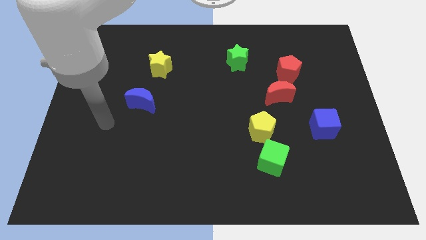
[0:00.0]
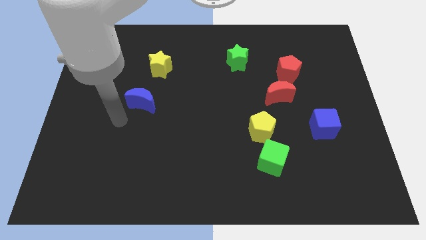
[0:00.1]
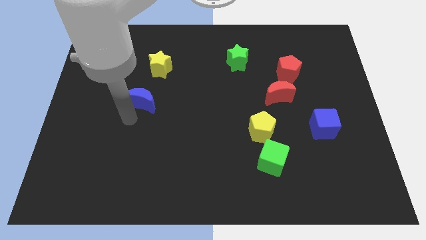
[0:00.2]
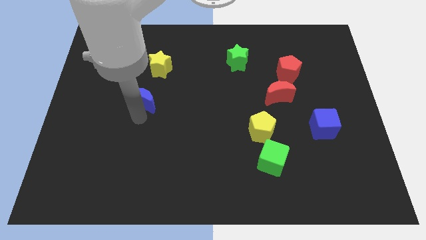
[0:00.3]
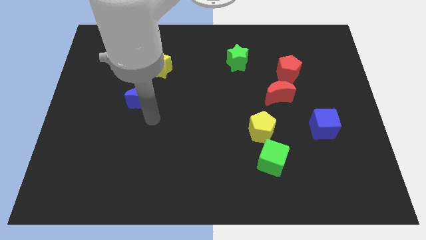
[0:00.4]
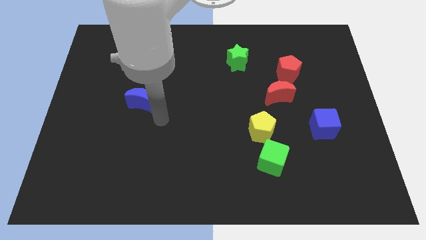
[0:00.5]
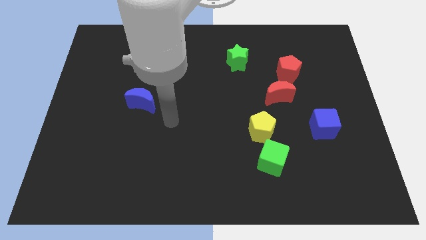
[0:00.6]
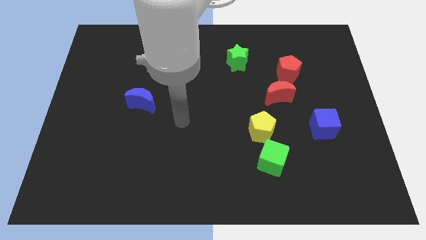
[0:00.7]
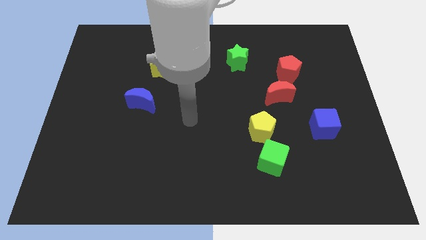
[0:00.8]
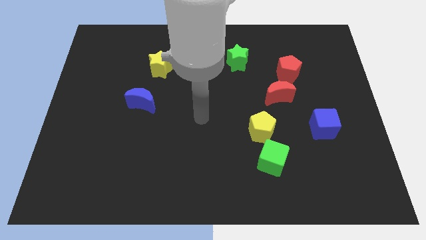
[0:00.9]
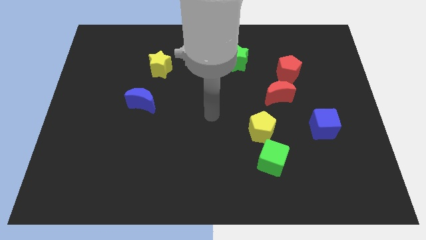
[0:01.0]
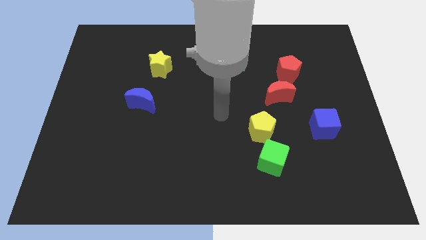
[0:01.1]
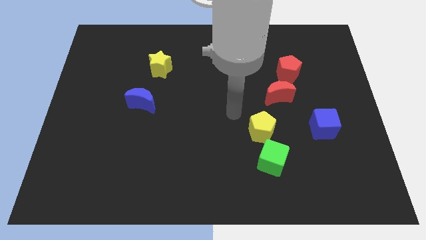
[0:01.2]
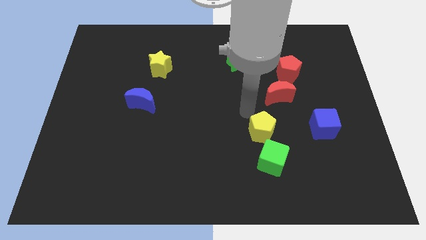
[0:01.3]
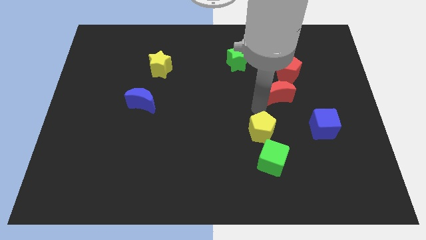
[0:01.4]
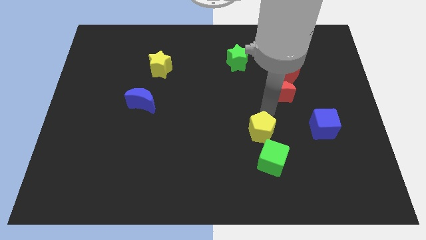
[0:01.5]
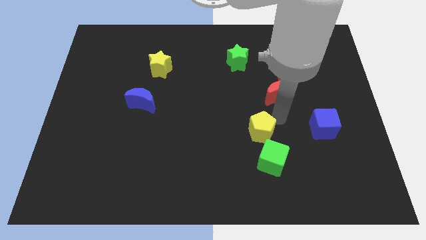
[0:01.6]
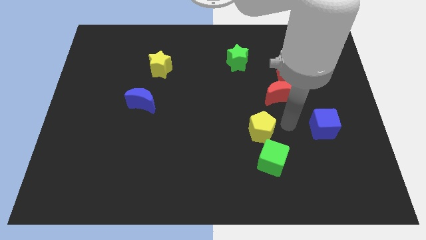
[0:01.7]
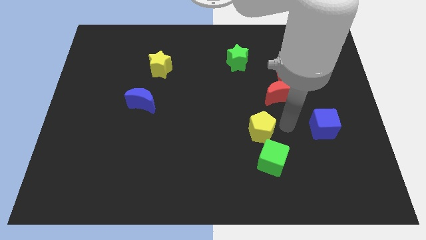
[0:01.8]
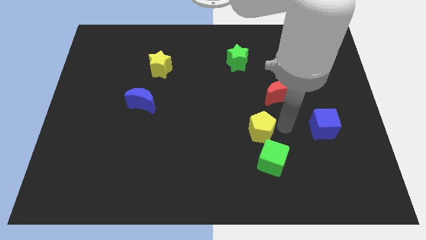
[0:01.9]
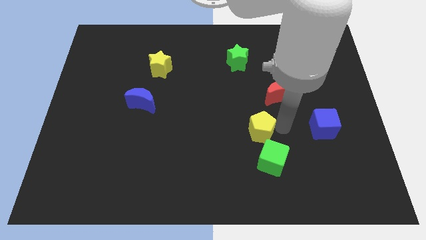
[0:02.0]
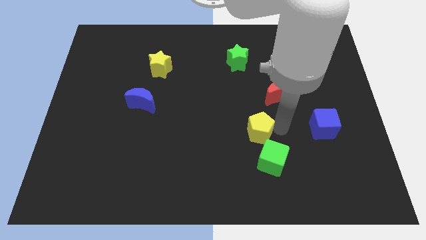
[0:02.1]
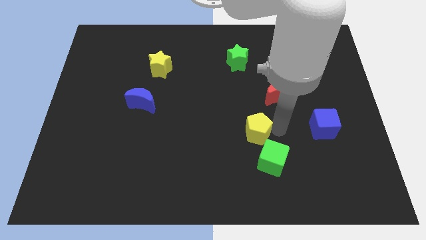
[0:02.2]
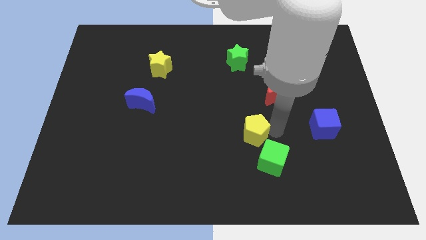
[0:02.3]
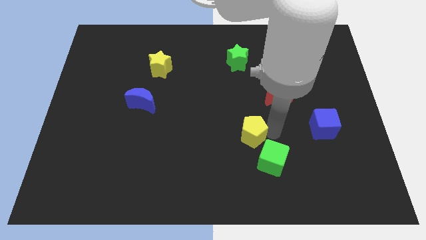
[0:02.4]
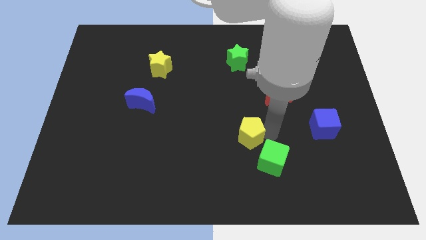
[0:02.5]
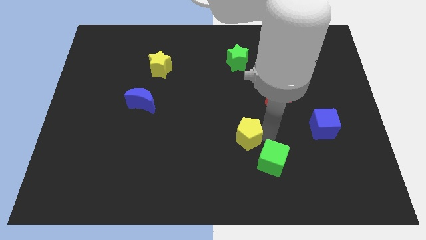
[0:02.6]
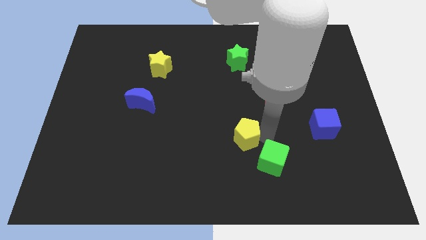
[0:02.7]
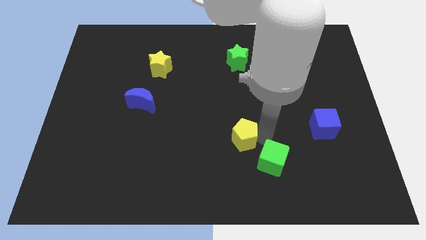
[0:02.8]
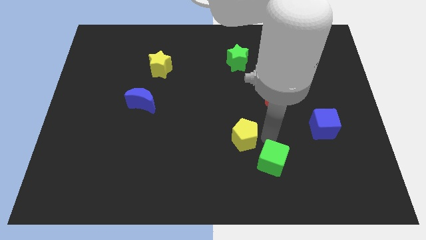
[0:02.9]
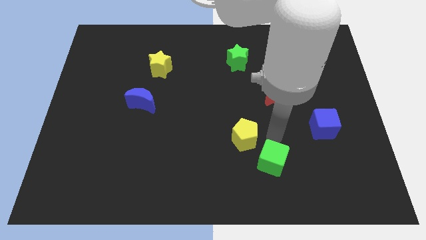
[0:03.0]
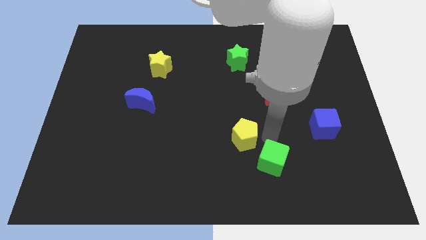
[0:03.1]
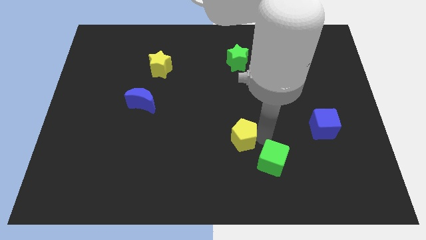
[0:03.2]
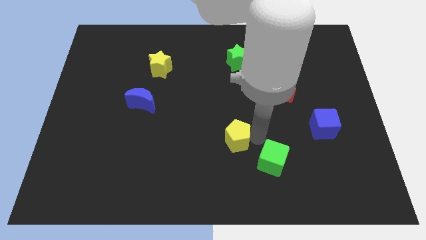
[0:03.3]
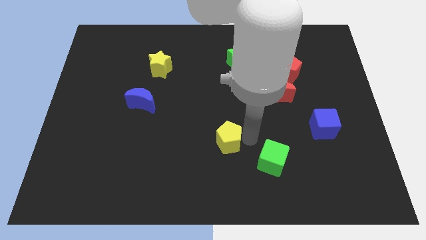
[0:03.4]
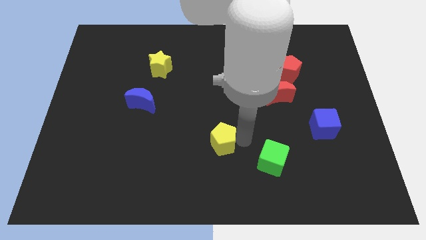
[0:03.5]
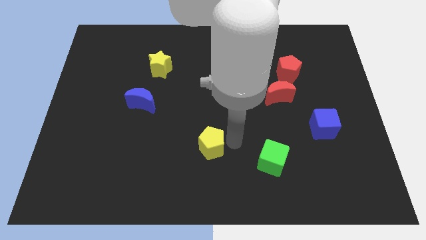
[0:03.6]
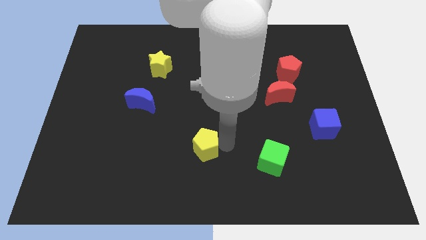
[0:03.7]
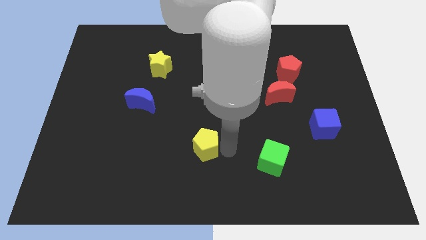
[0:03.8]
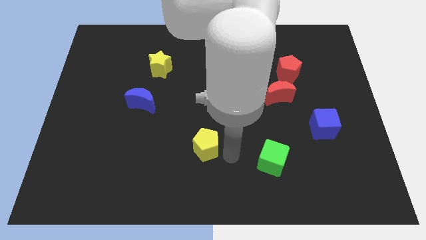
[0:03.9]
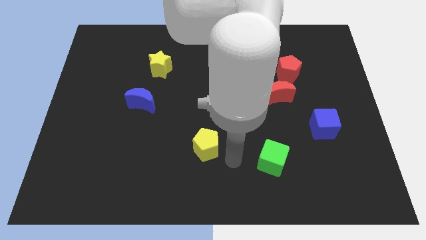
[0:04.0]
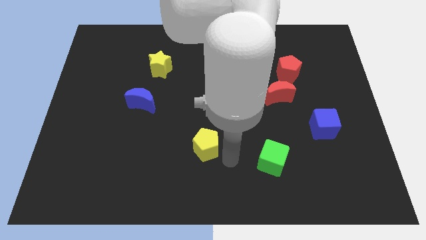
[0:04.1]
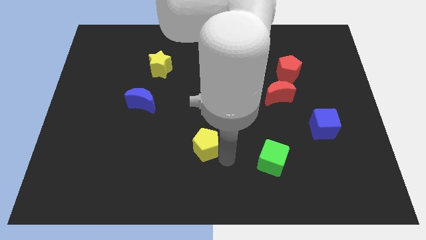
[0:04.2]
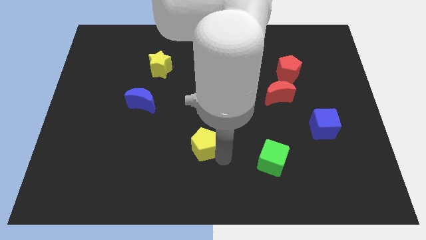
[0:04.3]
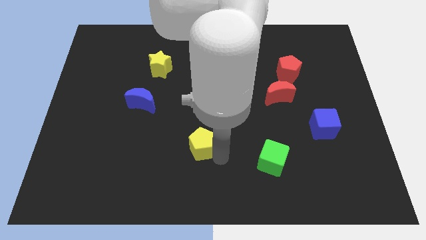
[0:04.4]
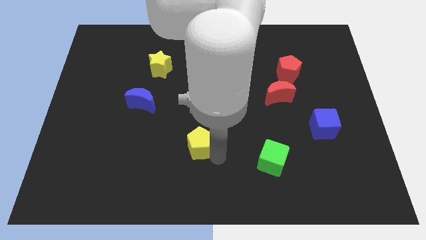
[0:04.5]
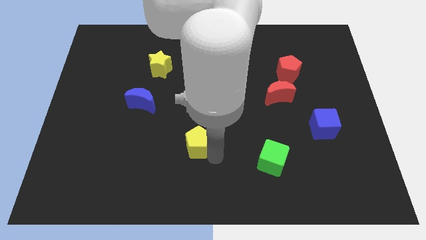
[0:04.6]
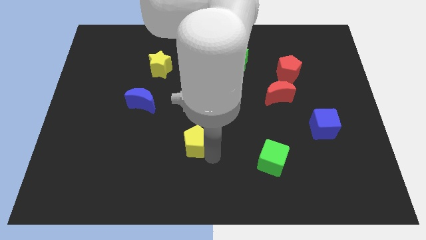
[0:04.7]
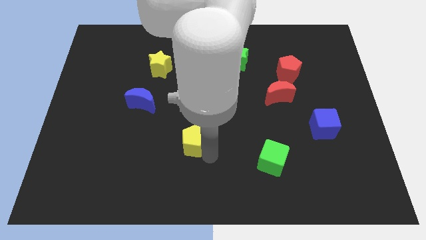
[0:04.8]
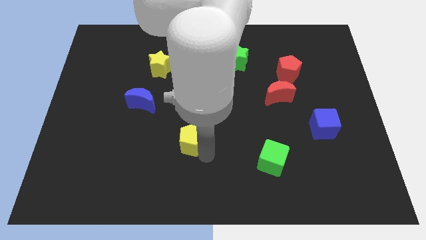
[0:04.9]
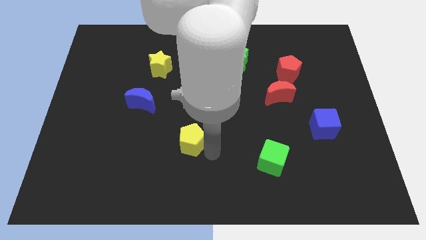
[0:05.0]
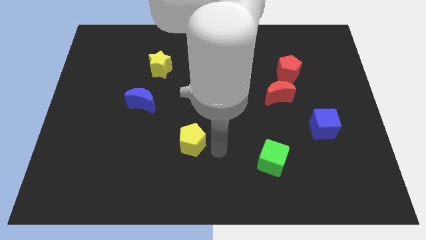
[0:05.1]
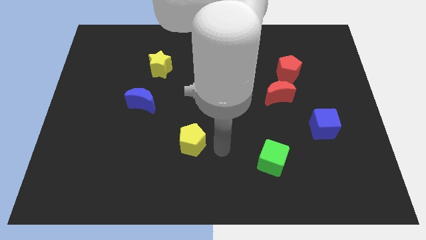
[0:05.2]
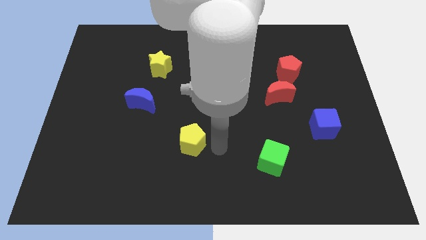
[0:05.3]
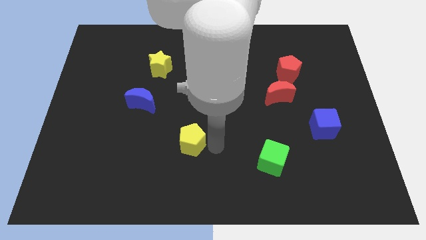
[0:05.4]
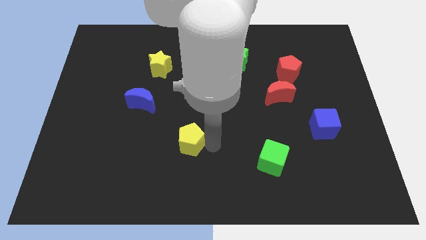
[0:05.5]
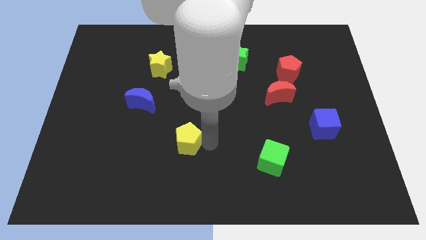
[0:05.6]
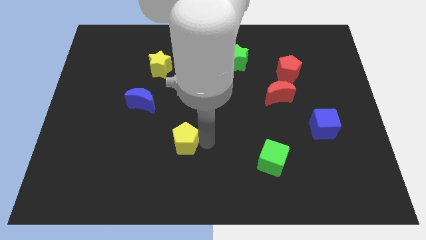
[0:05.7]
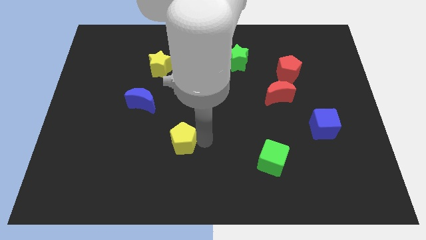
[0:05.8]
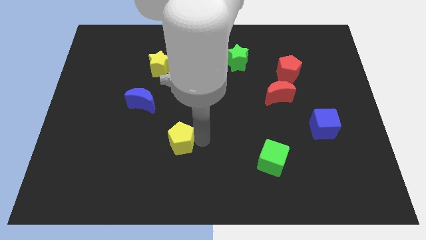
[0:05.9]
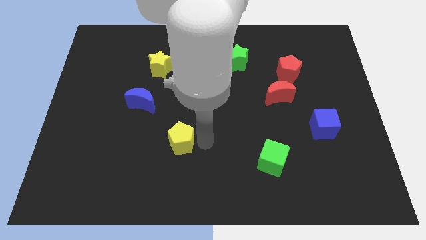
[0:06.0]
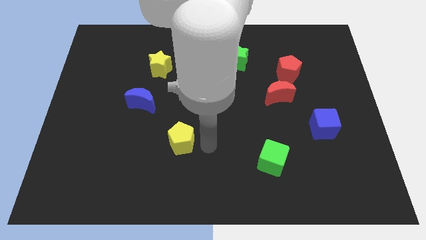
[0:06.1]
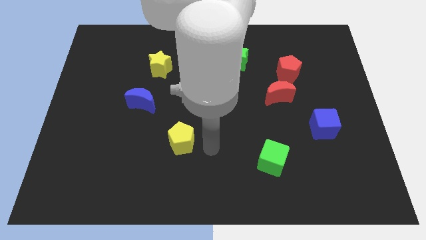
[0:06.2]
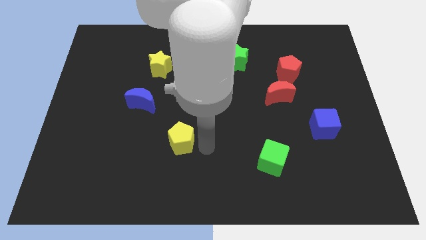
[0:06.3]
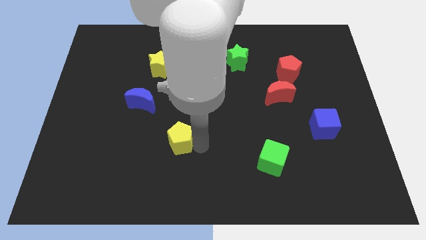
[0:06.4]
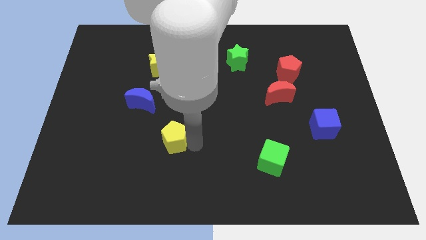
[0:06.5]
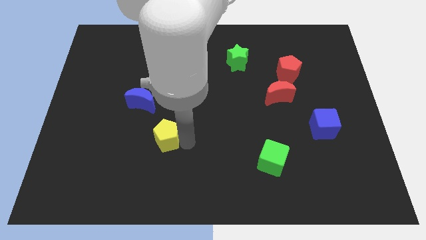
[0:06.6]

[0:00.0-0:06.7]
slide the yellow pentagon left

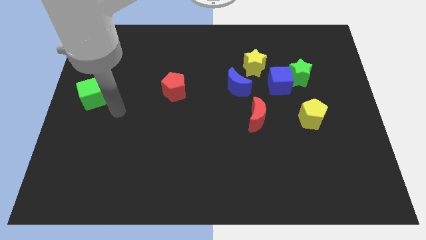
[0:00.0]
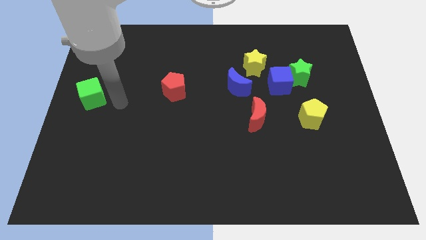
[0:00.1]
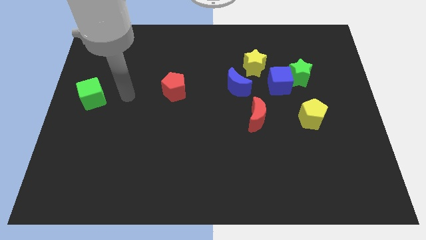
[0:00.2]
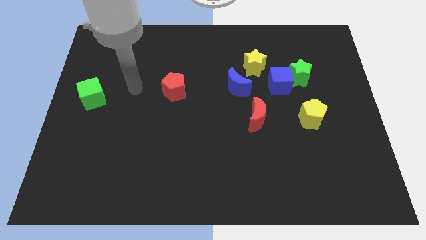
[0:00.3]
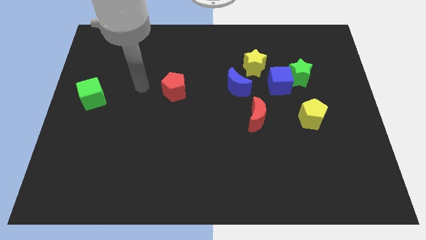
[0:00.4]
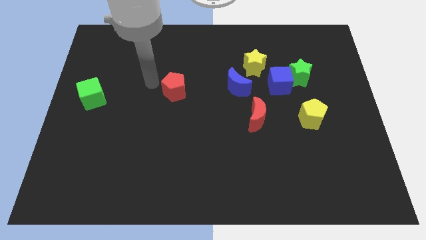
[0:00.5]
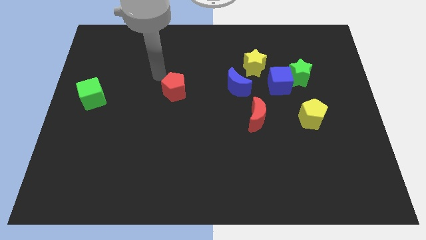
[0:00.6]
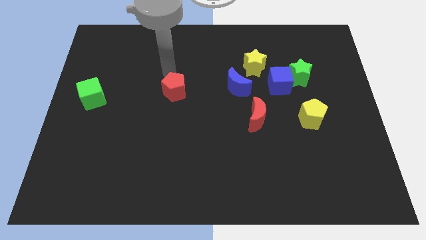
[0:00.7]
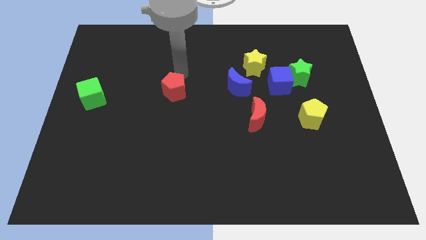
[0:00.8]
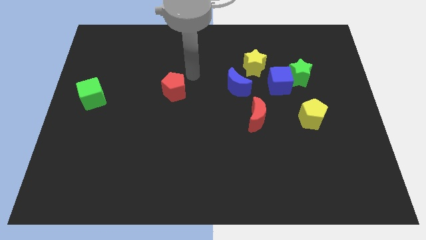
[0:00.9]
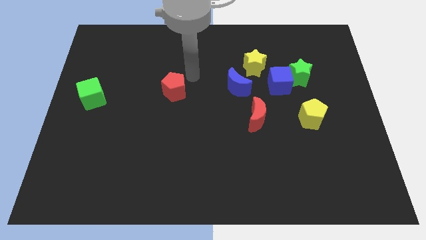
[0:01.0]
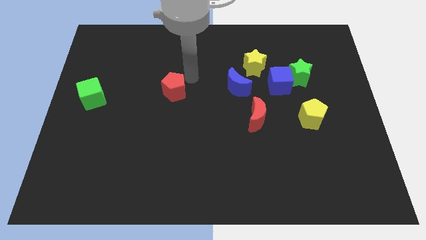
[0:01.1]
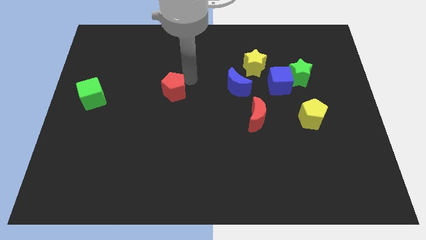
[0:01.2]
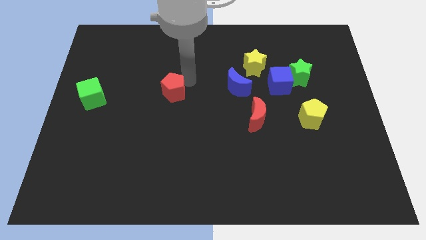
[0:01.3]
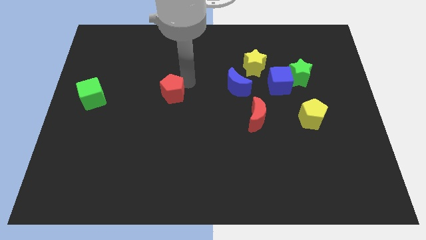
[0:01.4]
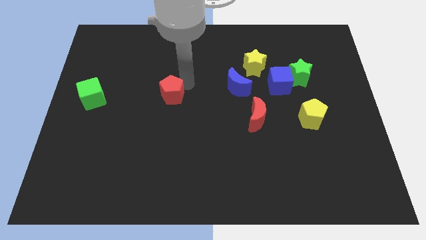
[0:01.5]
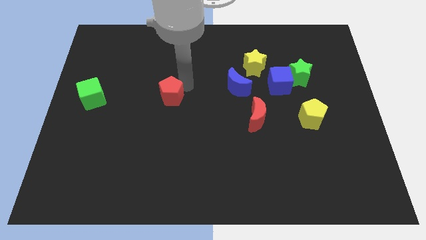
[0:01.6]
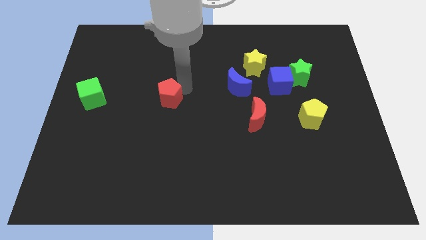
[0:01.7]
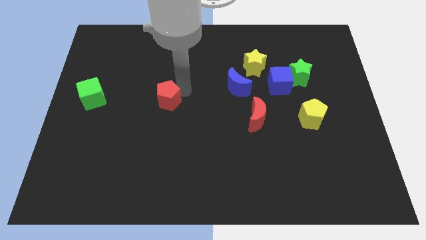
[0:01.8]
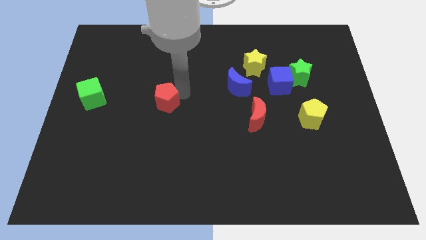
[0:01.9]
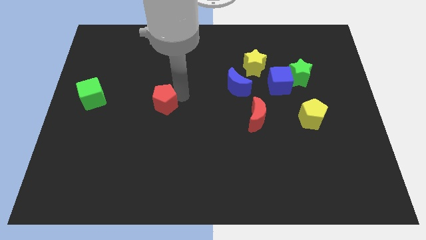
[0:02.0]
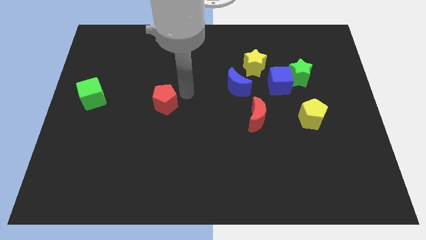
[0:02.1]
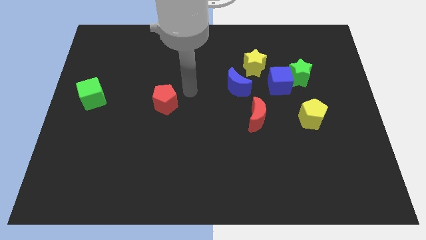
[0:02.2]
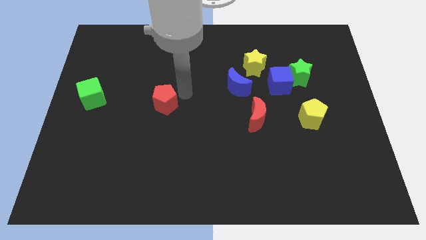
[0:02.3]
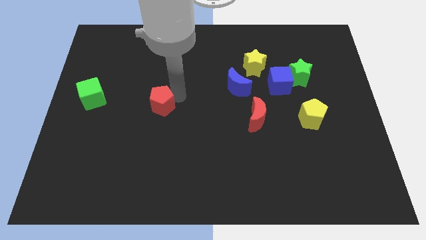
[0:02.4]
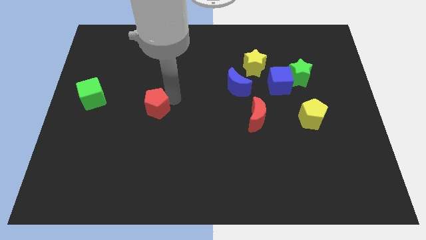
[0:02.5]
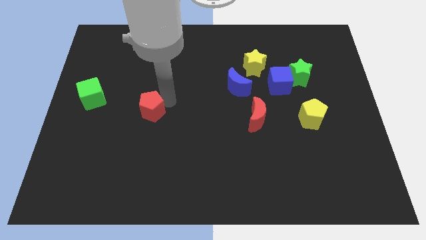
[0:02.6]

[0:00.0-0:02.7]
slightly slide the red pentagon downwards and left diagonally
